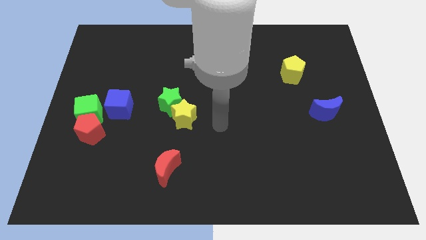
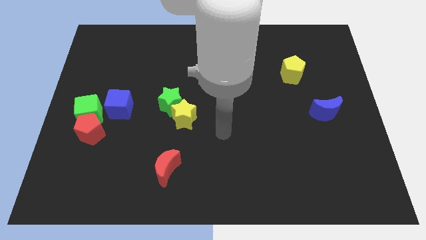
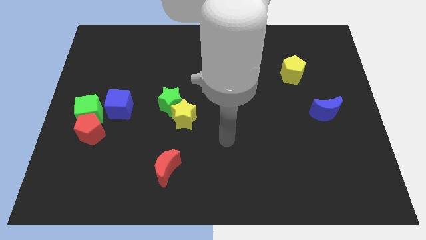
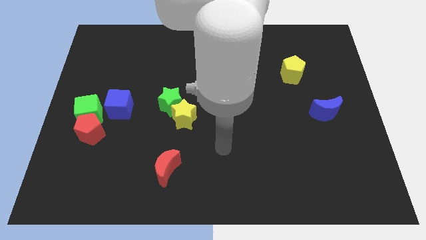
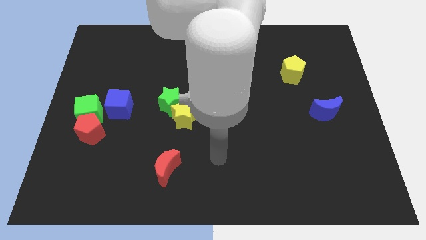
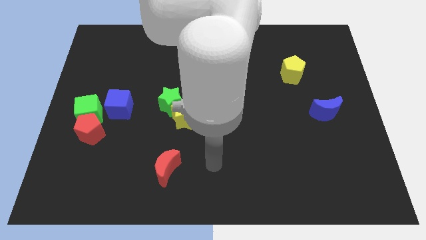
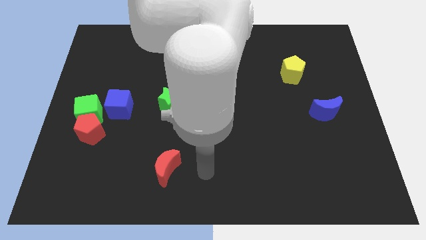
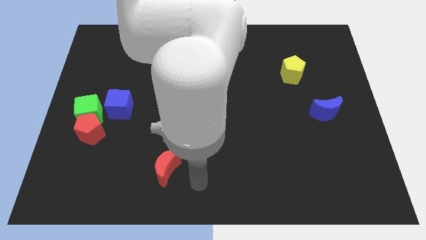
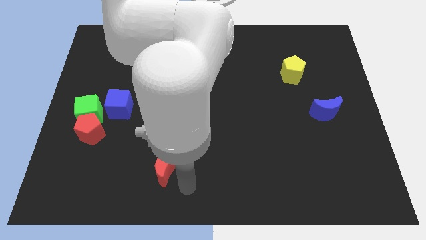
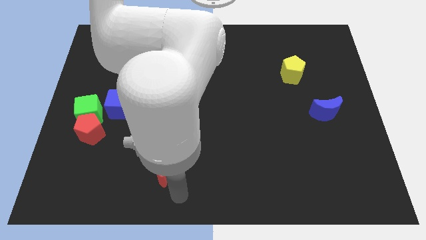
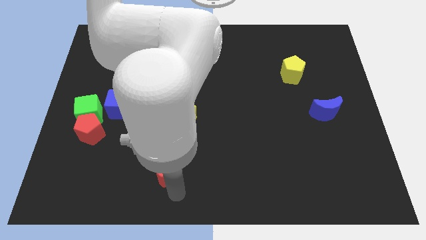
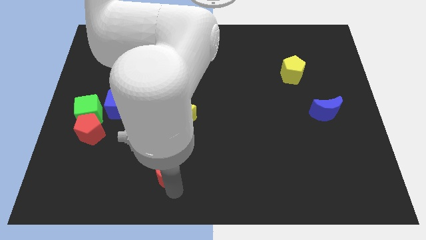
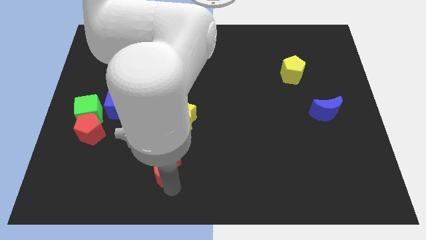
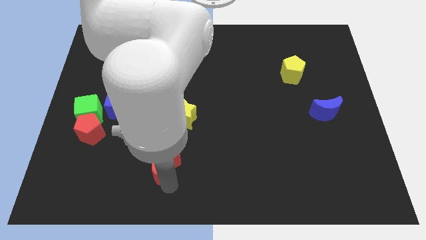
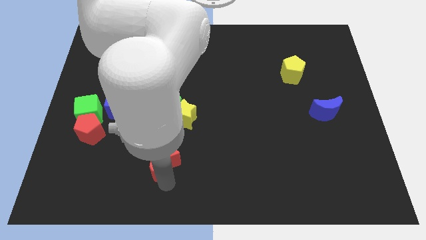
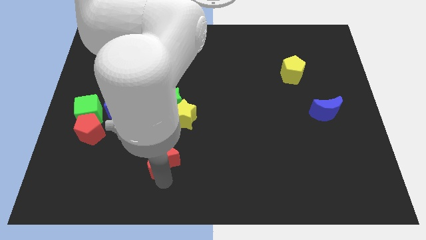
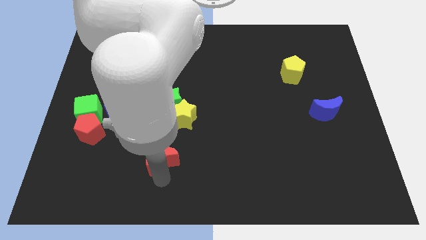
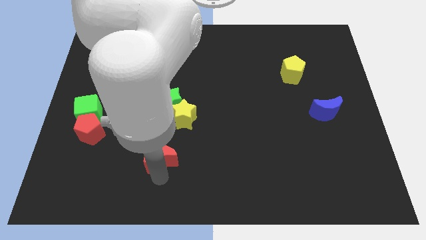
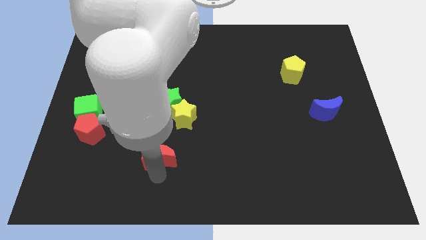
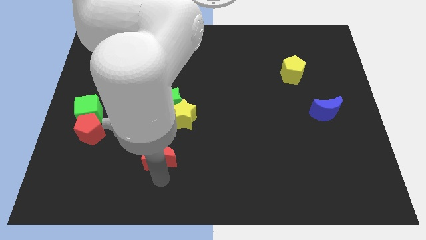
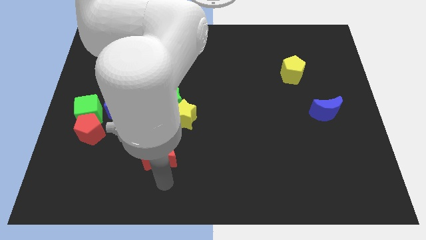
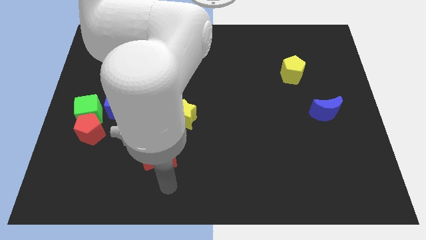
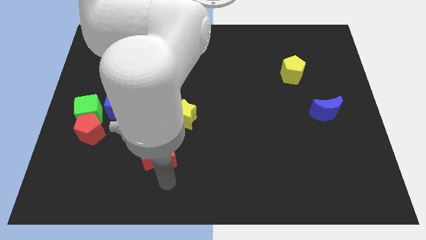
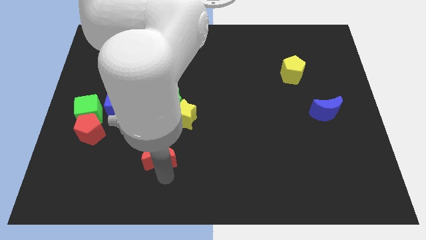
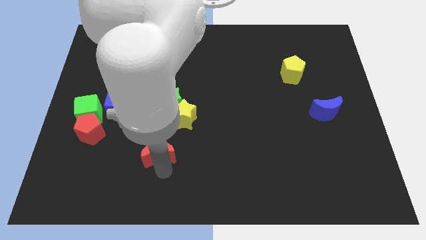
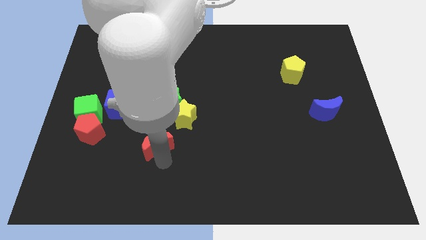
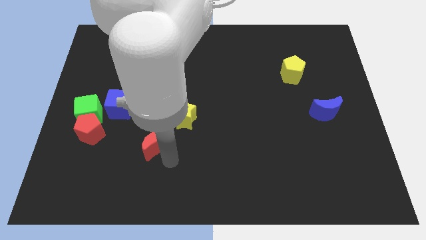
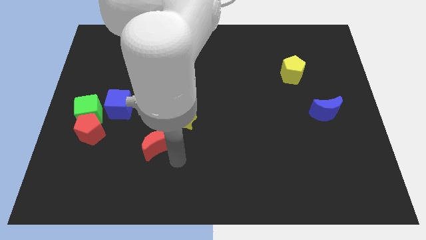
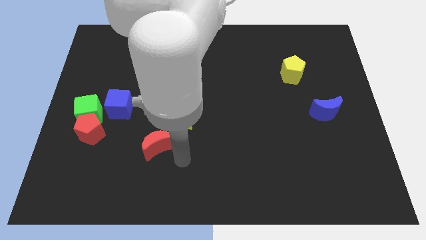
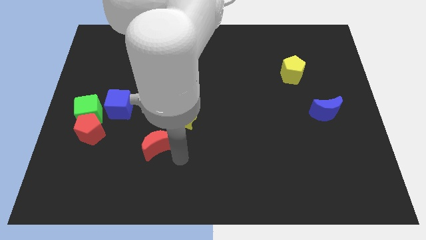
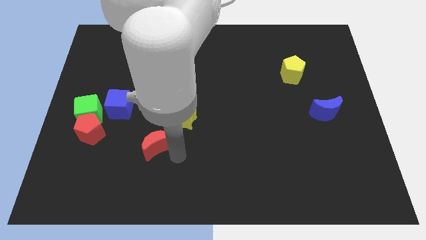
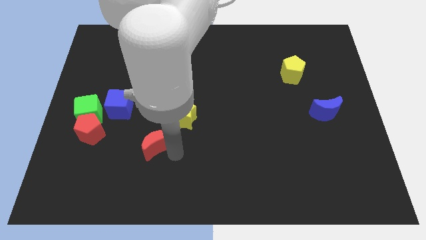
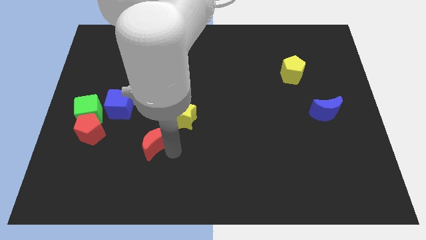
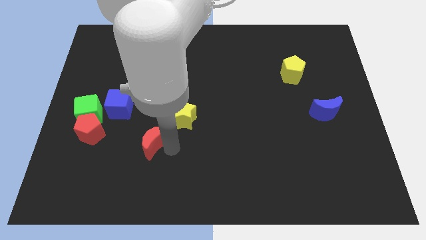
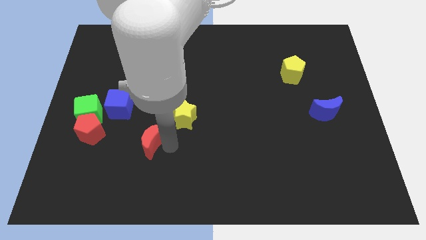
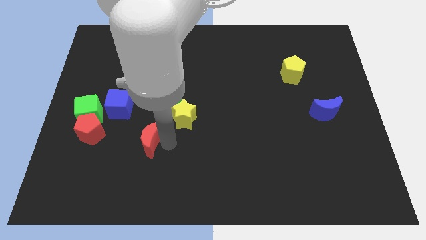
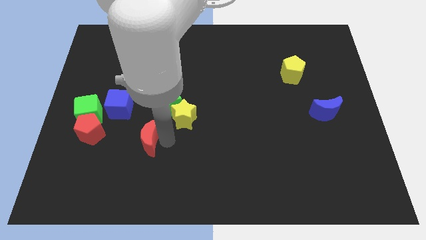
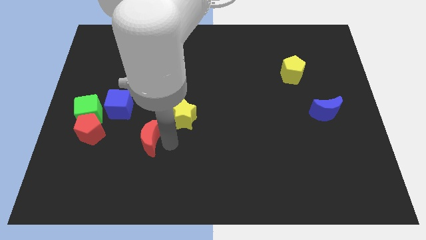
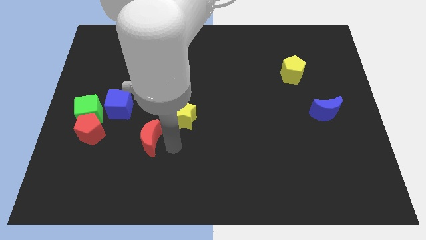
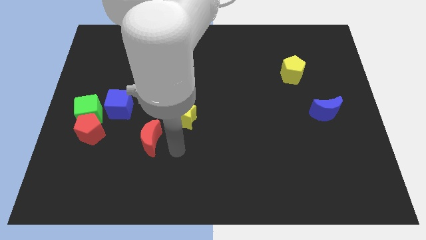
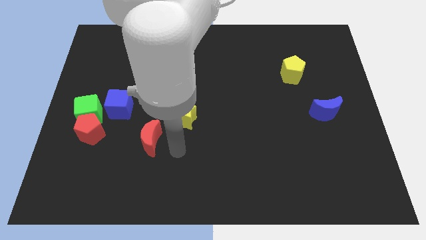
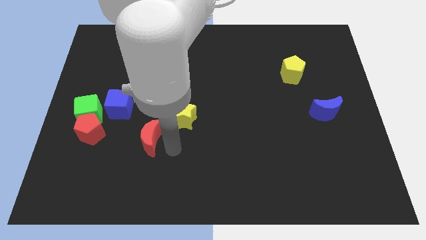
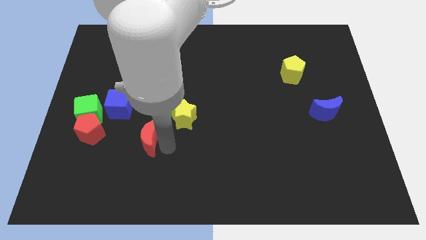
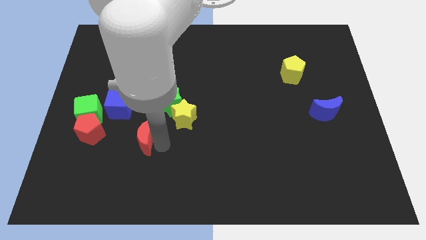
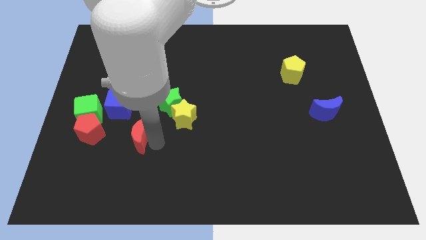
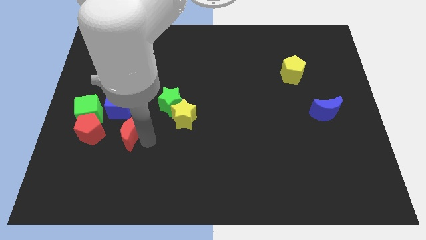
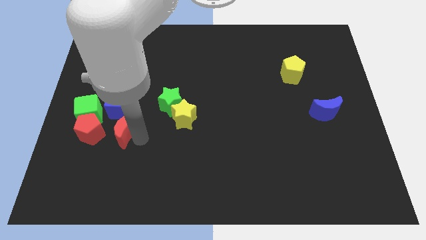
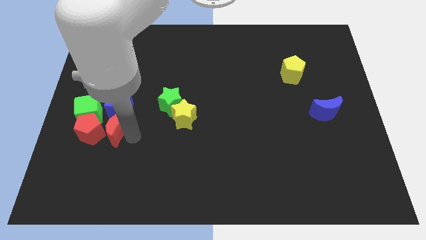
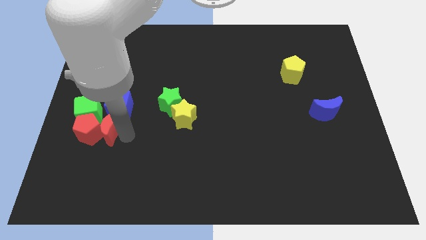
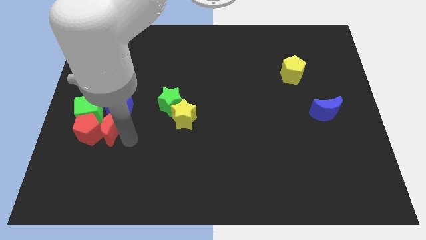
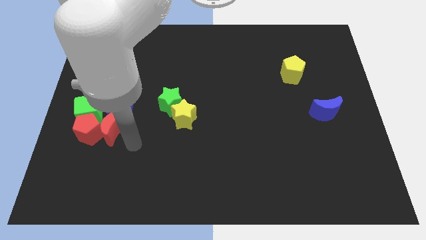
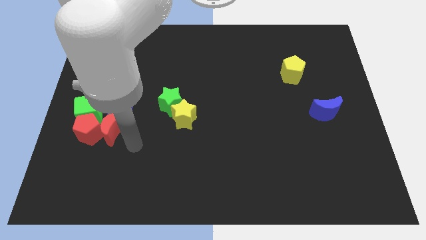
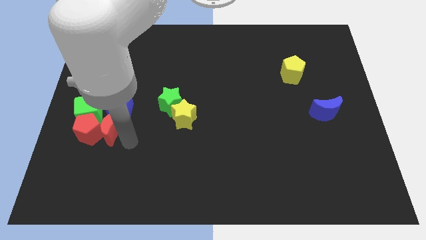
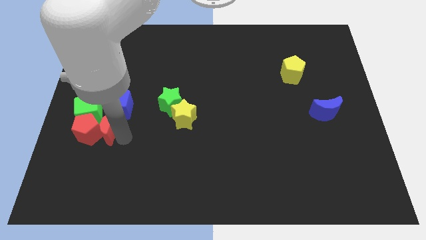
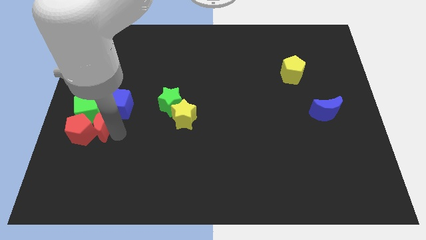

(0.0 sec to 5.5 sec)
push the red moon towards the green cube

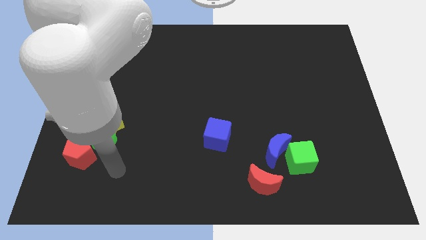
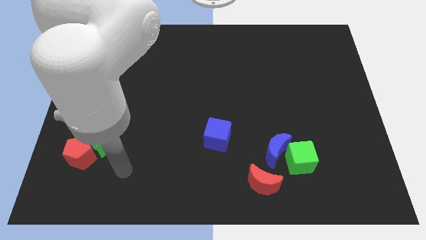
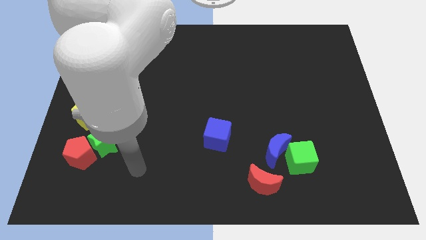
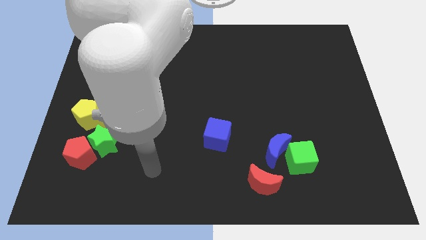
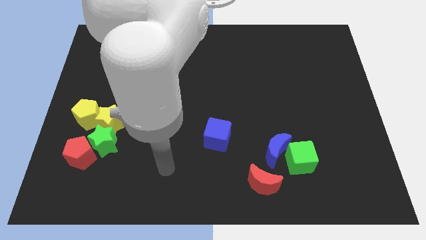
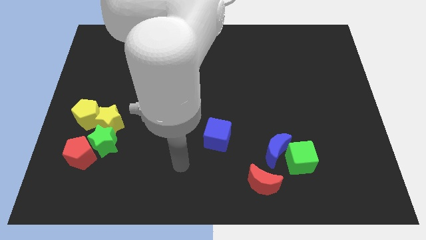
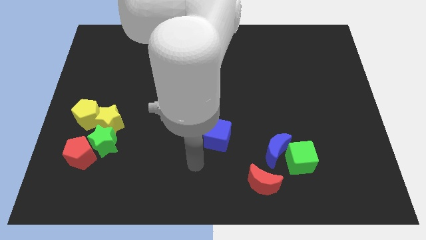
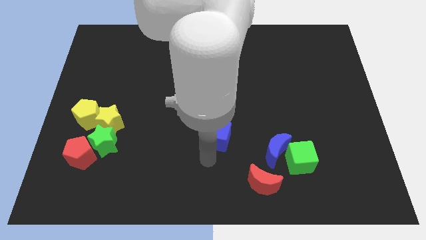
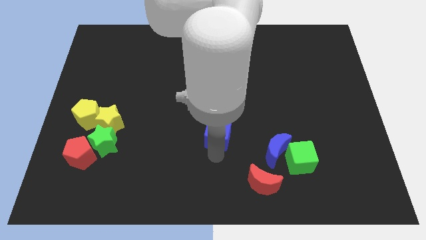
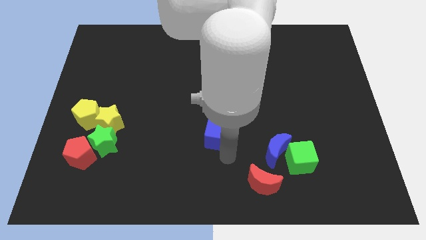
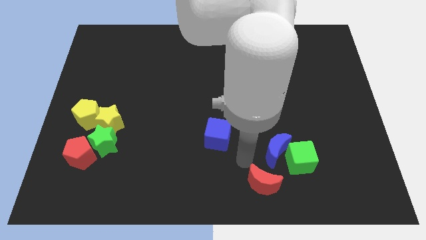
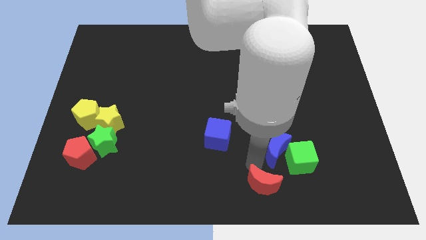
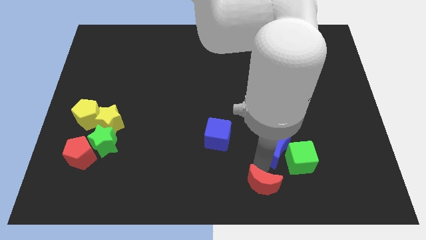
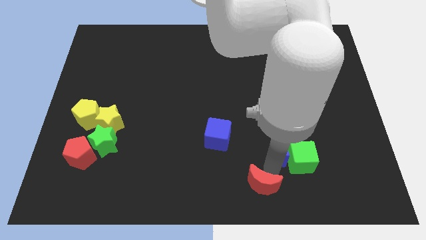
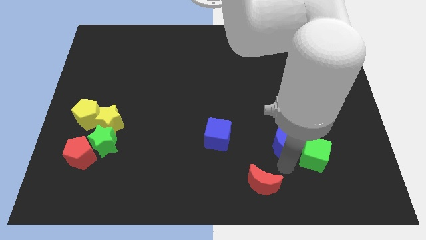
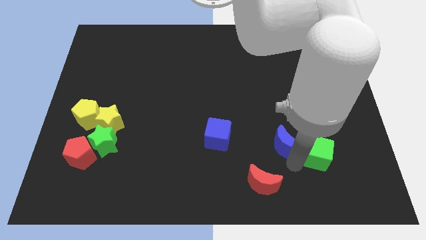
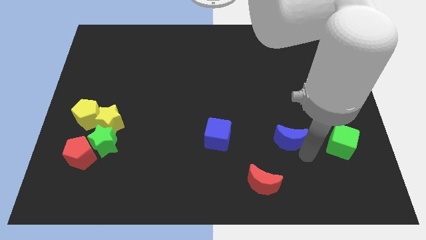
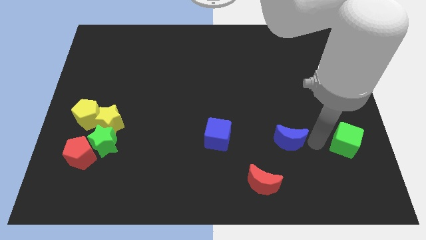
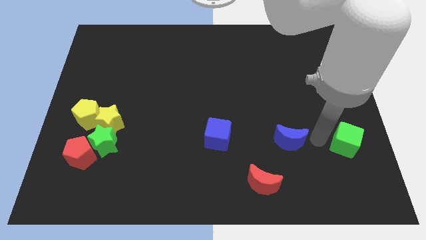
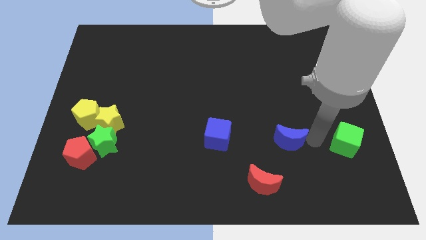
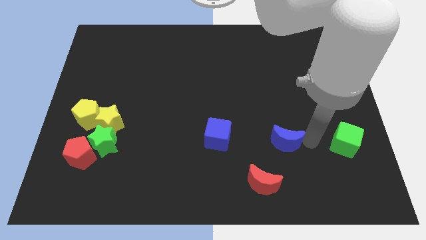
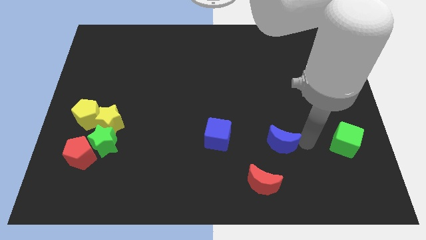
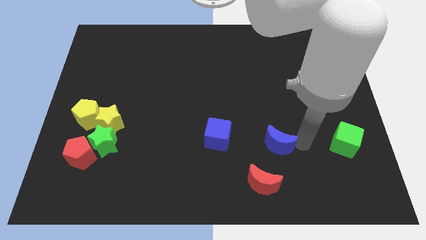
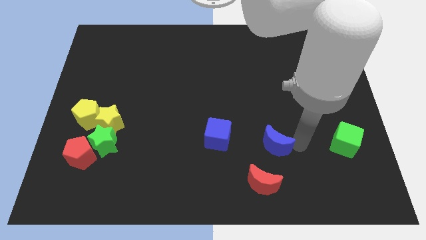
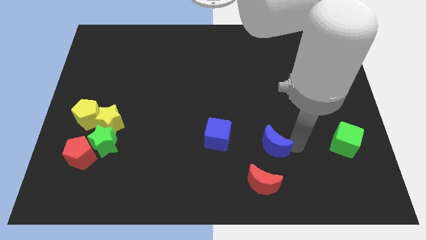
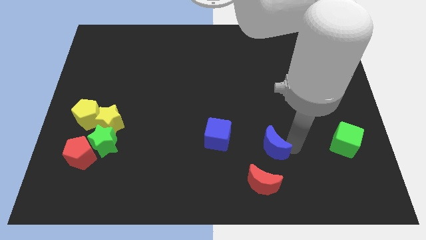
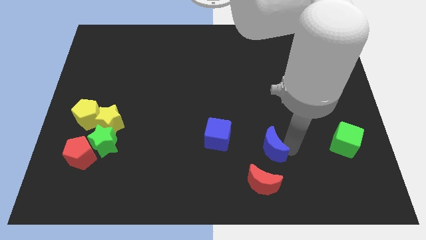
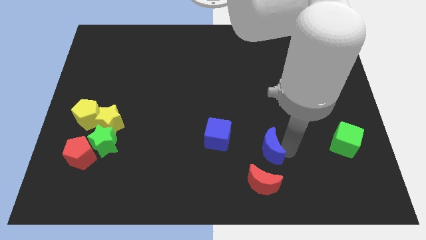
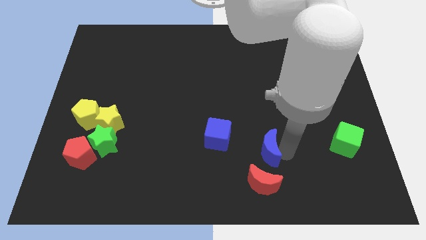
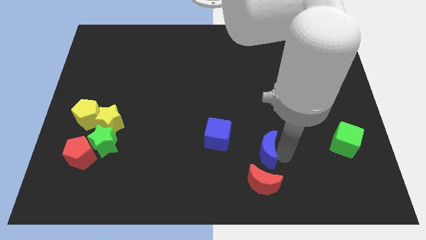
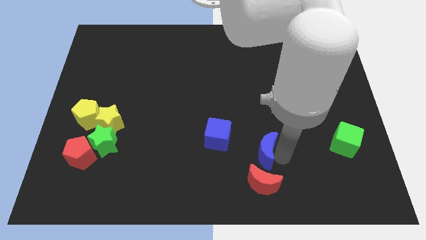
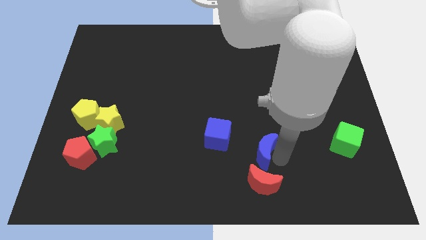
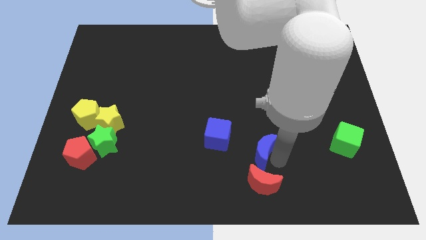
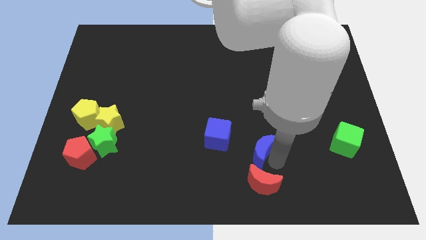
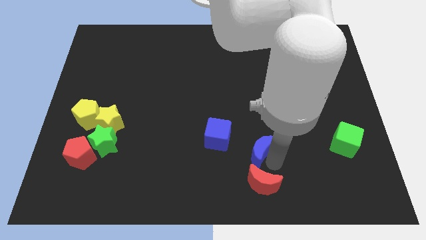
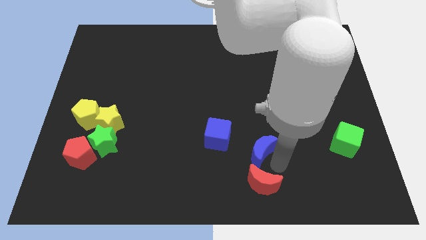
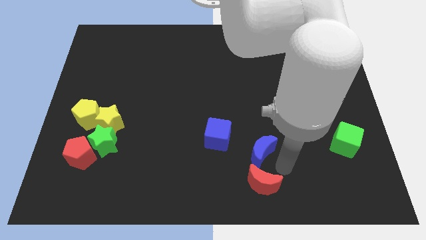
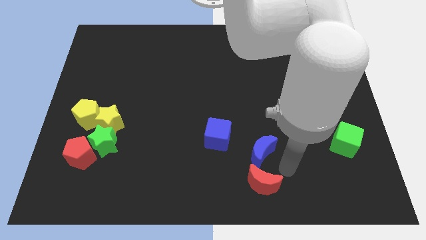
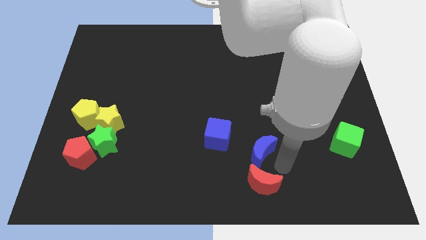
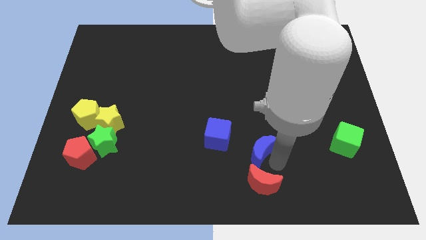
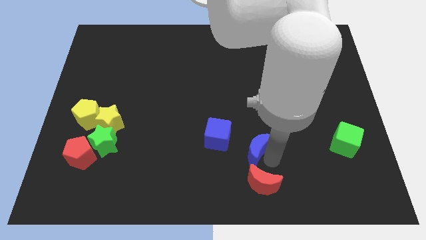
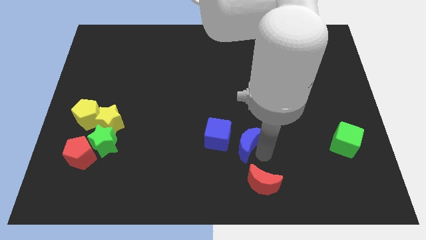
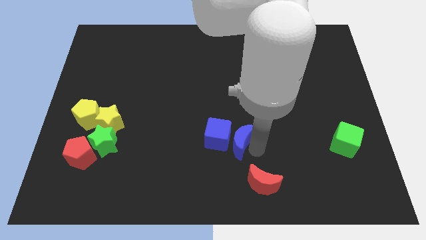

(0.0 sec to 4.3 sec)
move the blue moon next to the blue cube
